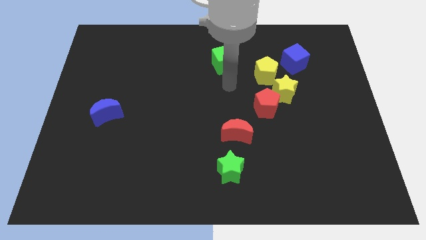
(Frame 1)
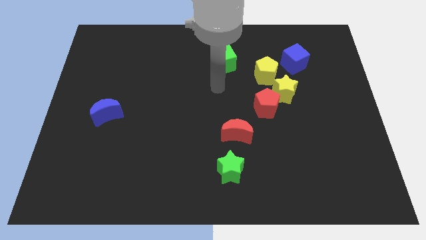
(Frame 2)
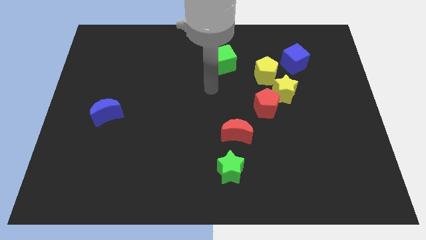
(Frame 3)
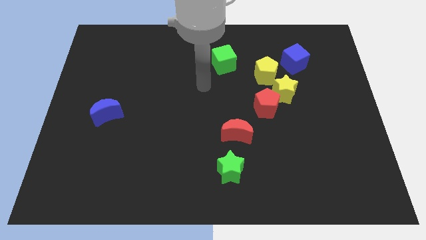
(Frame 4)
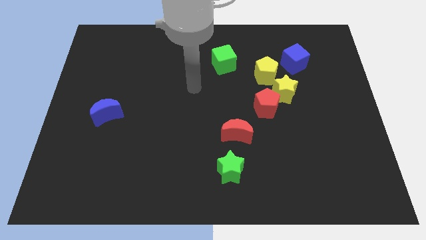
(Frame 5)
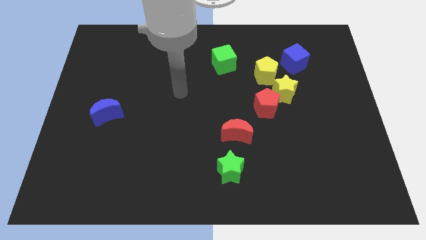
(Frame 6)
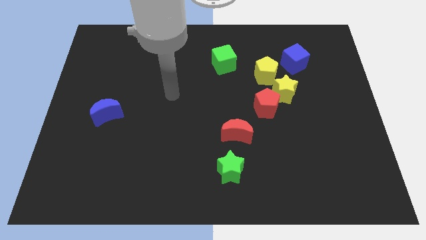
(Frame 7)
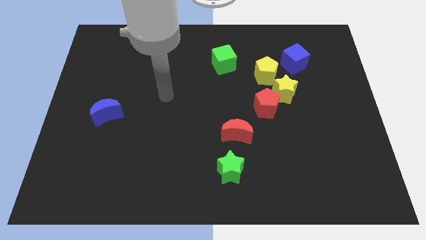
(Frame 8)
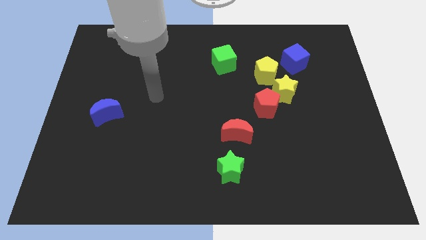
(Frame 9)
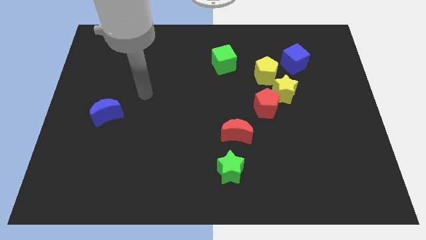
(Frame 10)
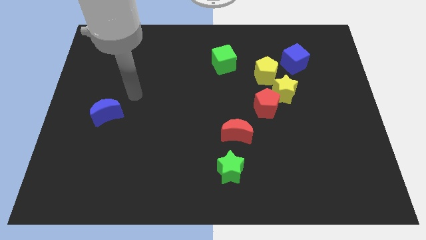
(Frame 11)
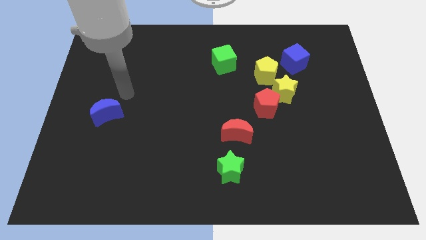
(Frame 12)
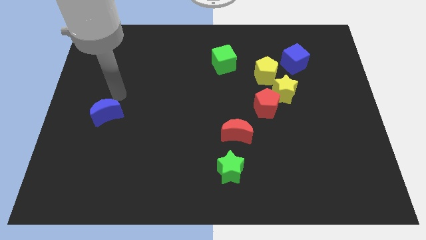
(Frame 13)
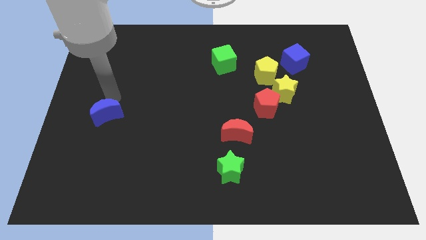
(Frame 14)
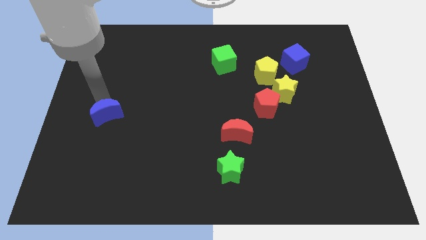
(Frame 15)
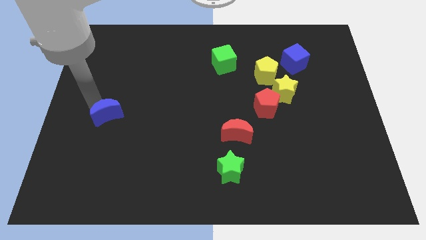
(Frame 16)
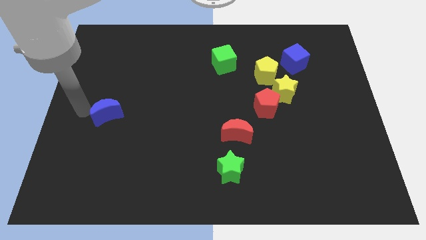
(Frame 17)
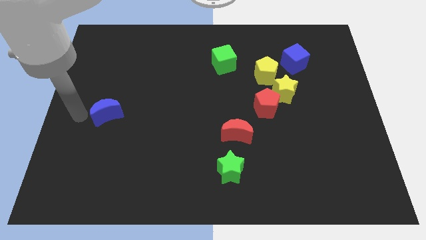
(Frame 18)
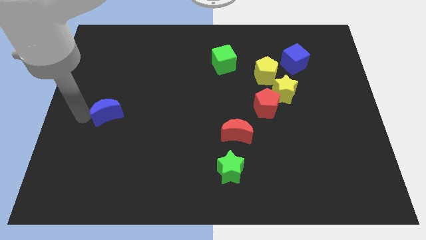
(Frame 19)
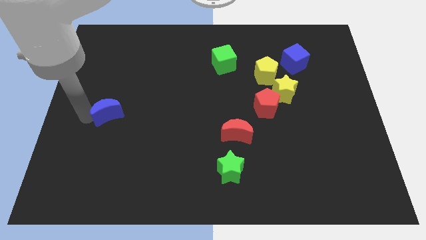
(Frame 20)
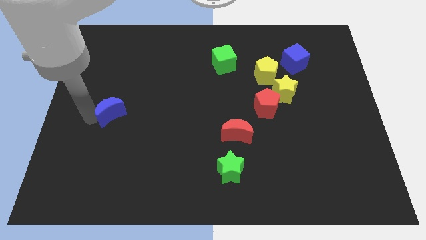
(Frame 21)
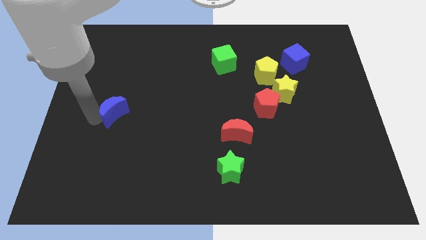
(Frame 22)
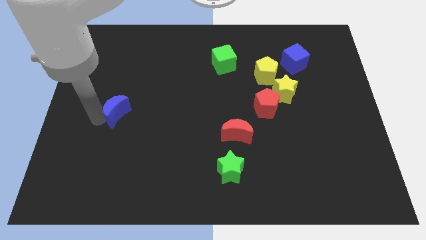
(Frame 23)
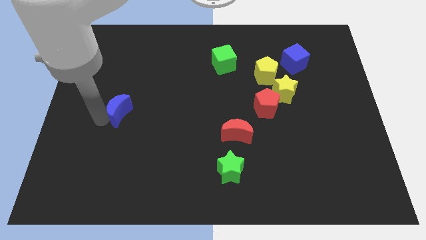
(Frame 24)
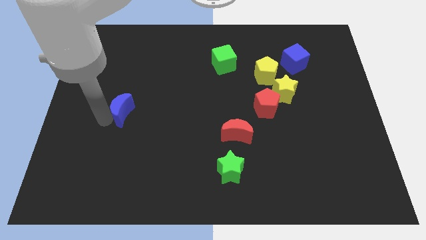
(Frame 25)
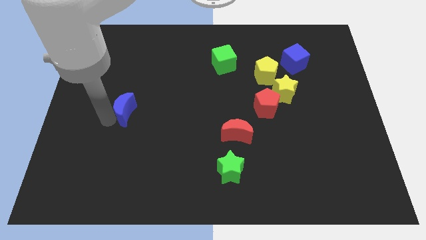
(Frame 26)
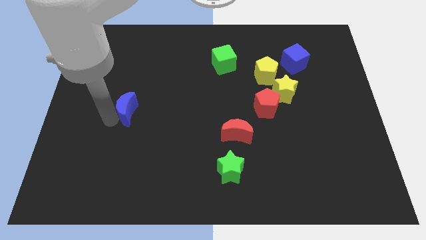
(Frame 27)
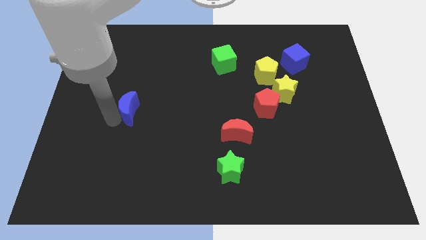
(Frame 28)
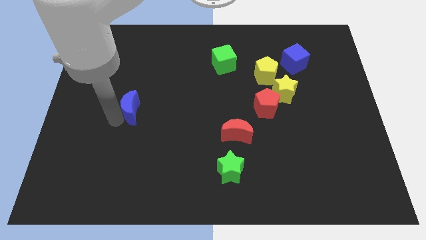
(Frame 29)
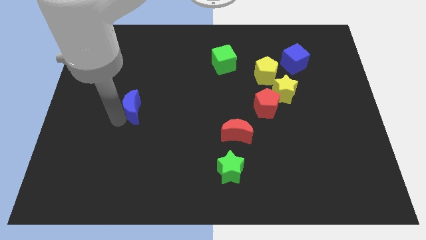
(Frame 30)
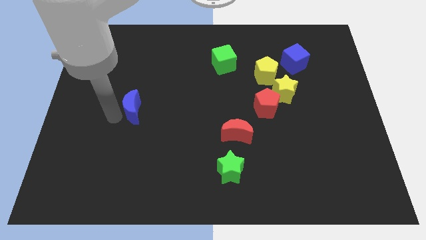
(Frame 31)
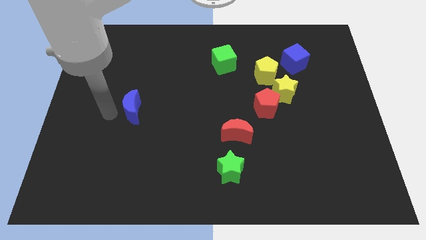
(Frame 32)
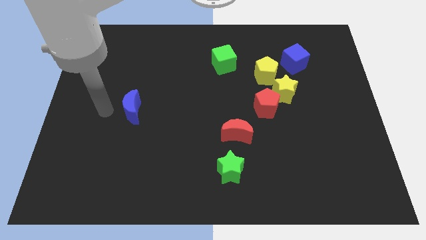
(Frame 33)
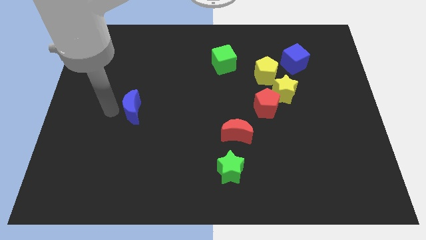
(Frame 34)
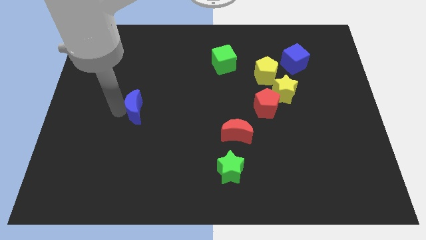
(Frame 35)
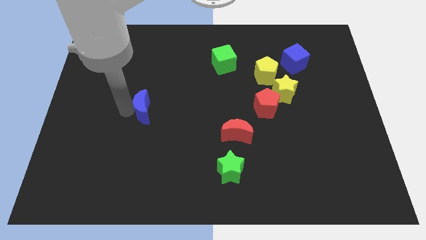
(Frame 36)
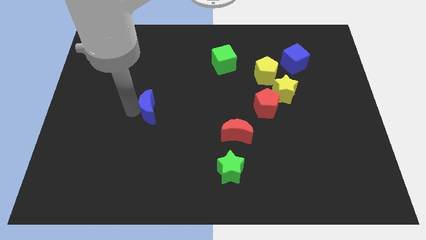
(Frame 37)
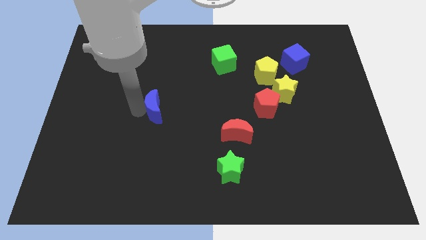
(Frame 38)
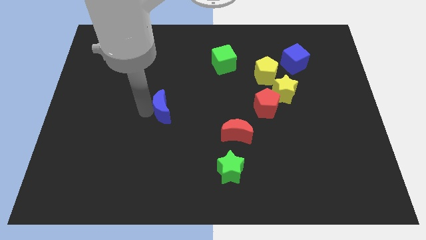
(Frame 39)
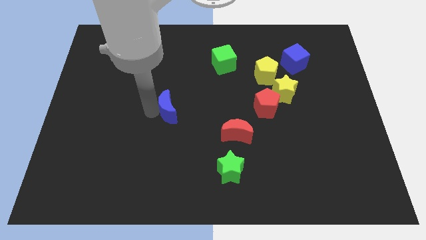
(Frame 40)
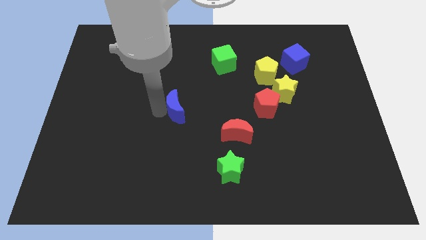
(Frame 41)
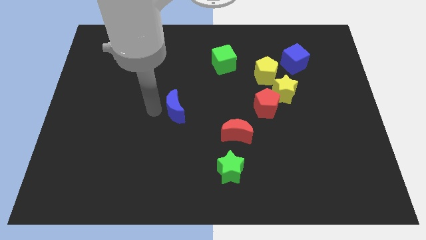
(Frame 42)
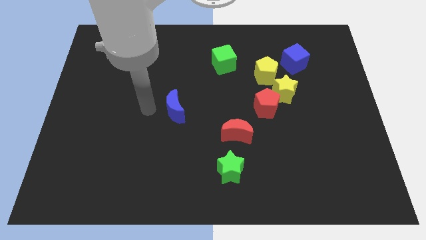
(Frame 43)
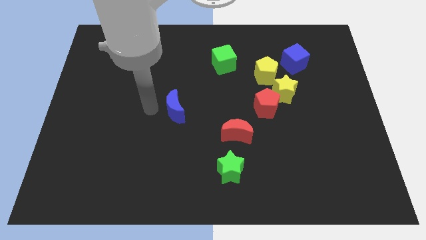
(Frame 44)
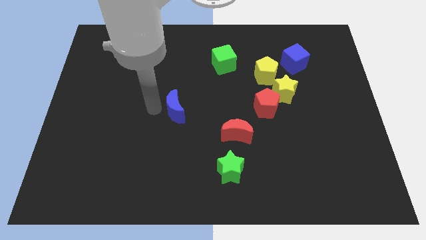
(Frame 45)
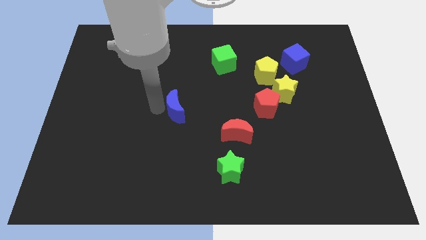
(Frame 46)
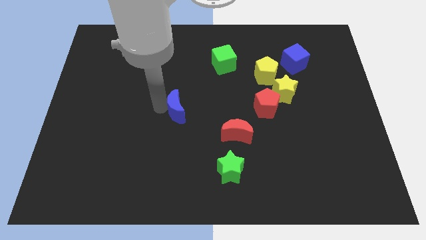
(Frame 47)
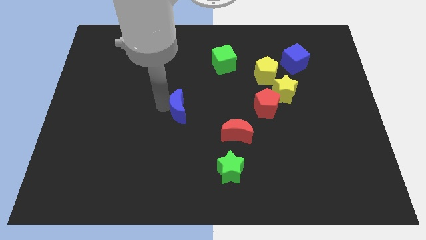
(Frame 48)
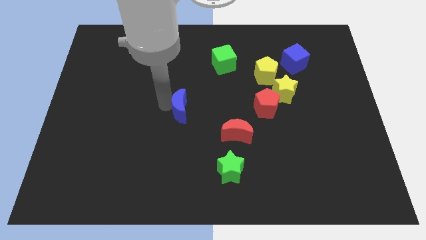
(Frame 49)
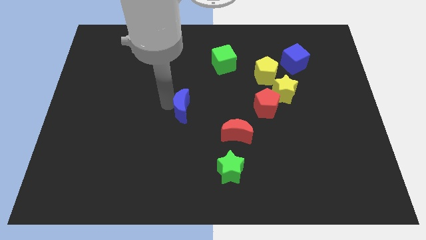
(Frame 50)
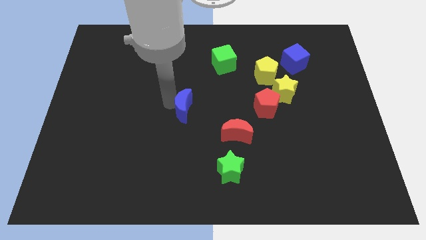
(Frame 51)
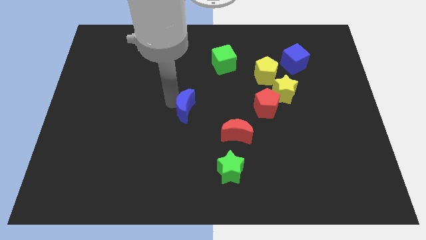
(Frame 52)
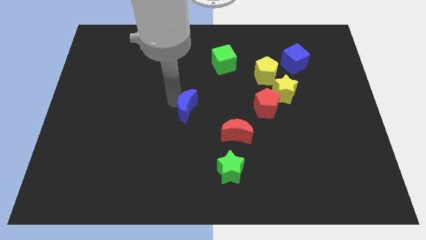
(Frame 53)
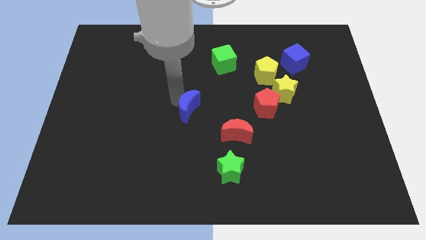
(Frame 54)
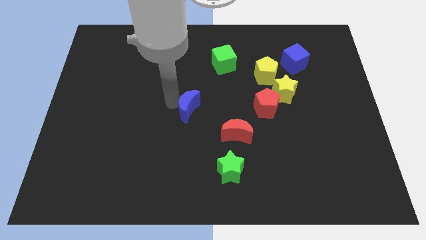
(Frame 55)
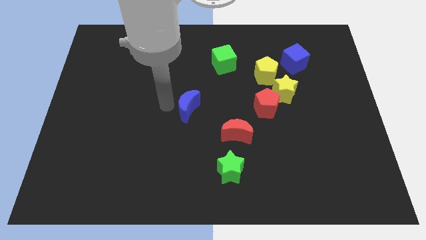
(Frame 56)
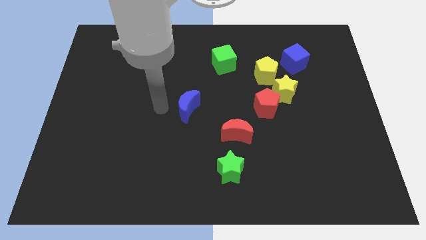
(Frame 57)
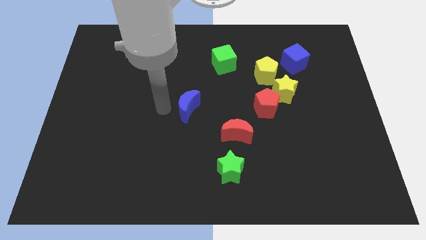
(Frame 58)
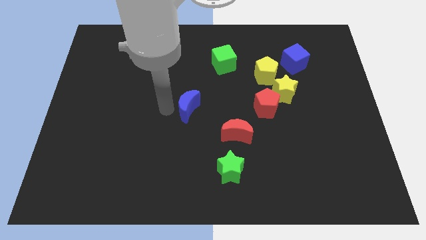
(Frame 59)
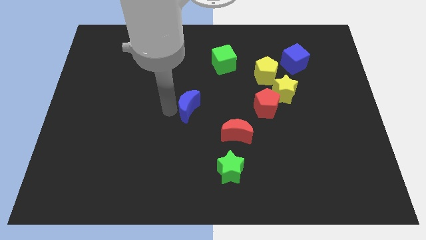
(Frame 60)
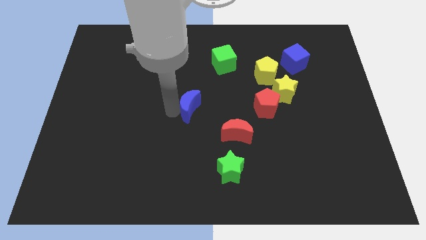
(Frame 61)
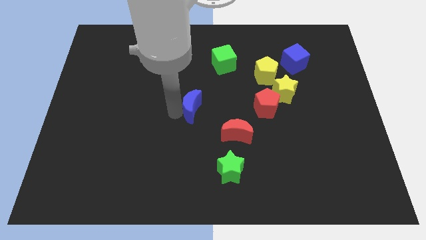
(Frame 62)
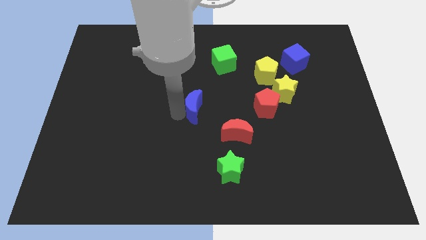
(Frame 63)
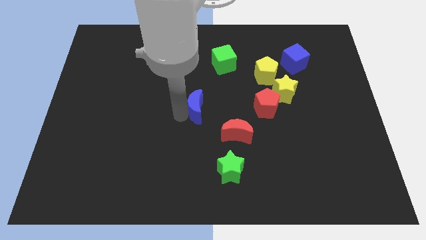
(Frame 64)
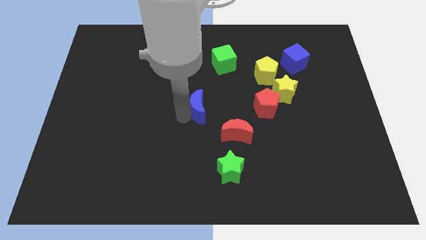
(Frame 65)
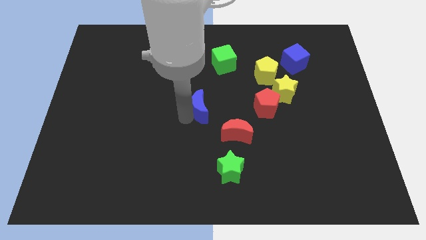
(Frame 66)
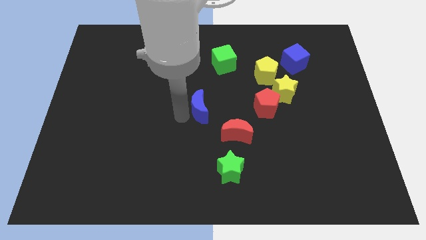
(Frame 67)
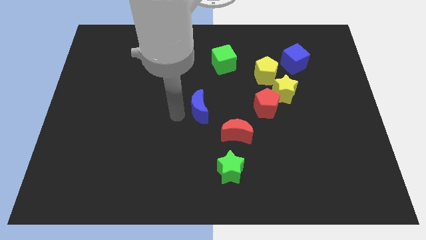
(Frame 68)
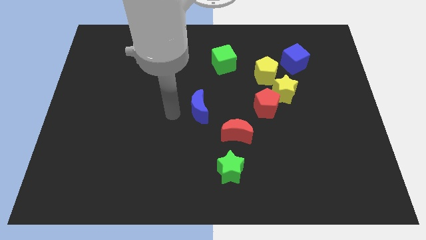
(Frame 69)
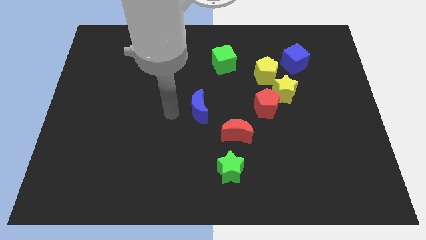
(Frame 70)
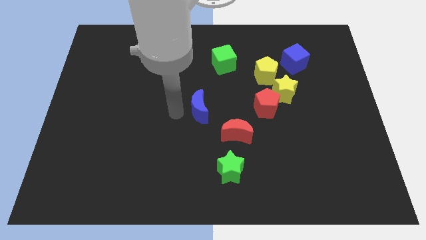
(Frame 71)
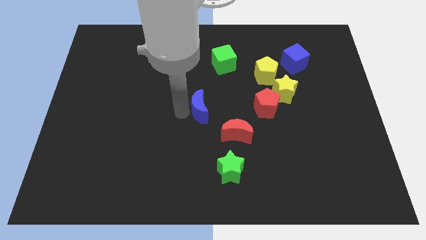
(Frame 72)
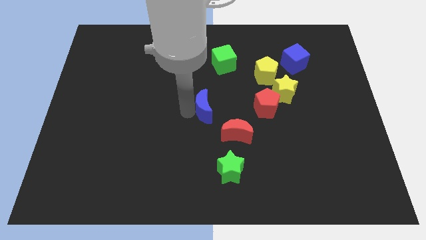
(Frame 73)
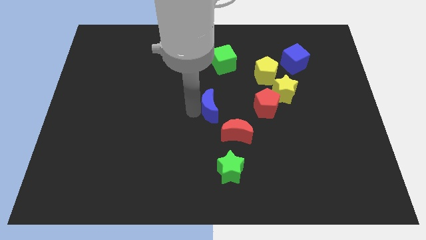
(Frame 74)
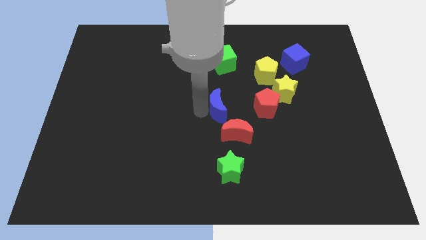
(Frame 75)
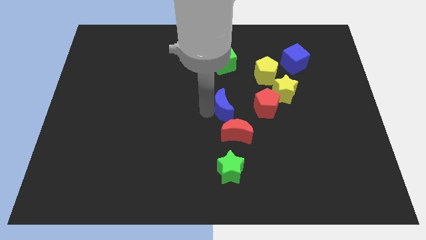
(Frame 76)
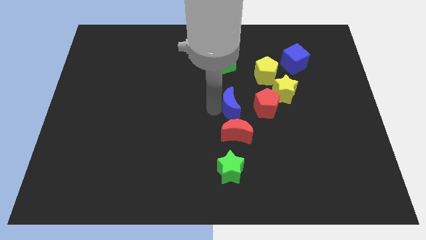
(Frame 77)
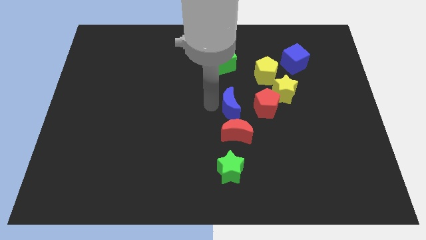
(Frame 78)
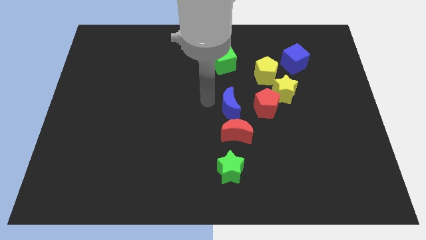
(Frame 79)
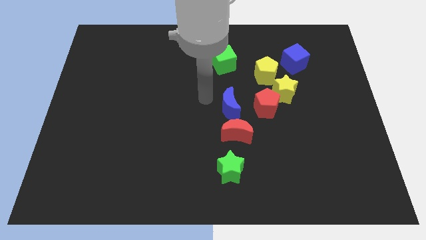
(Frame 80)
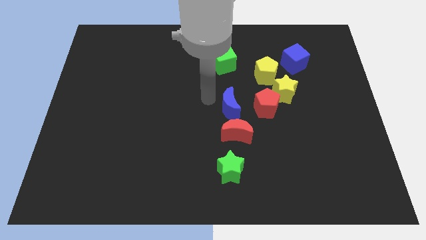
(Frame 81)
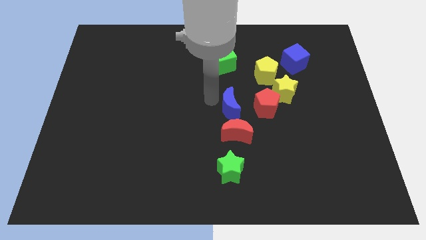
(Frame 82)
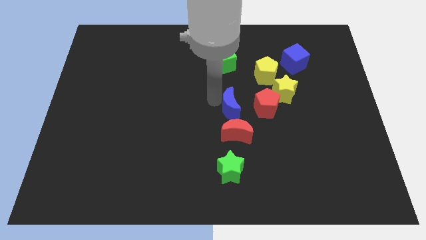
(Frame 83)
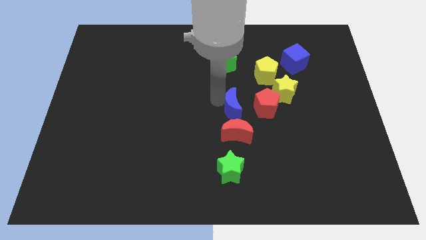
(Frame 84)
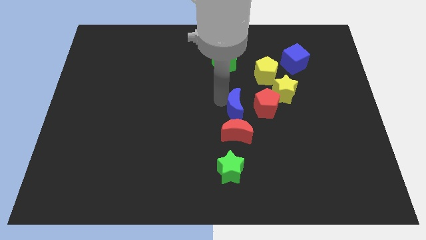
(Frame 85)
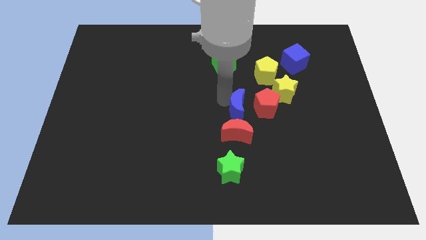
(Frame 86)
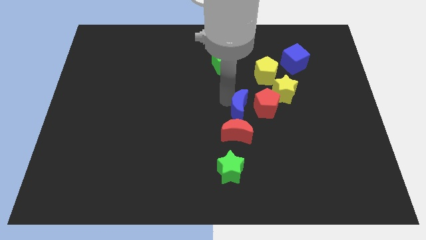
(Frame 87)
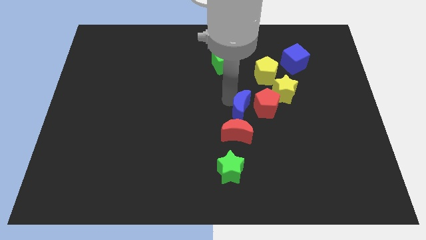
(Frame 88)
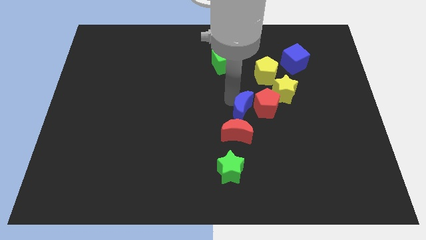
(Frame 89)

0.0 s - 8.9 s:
push the blue moon to the bottom left side of the yellow star
